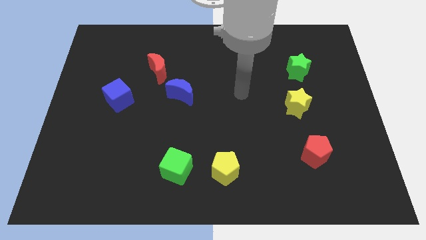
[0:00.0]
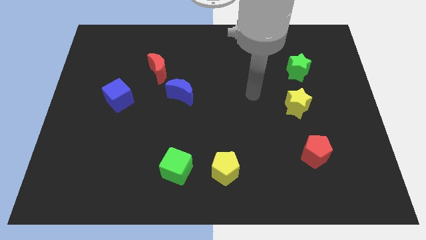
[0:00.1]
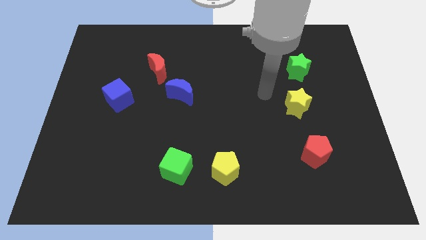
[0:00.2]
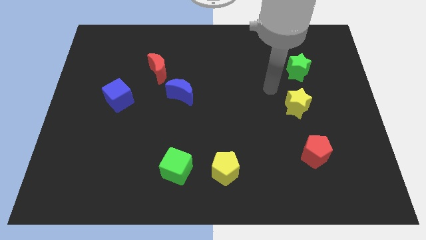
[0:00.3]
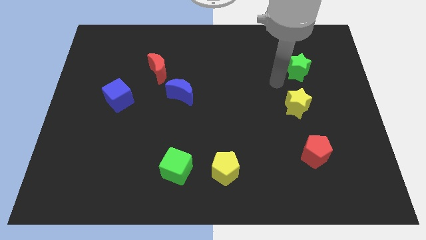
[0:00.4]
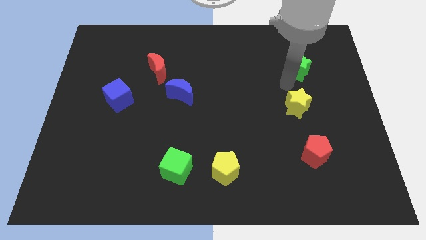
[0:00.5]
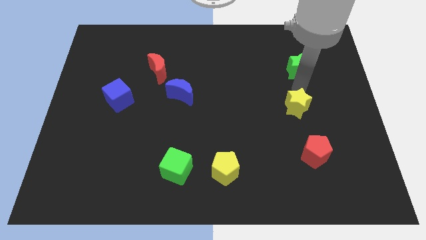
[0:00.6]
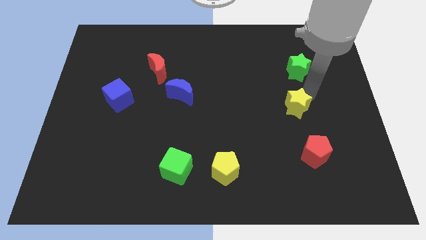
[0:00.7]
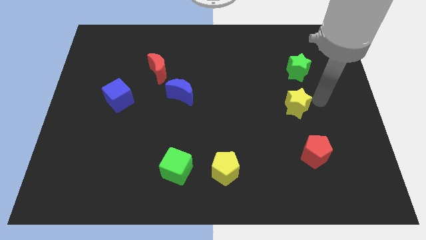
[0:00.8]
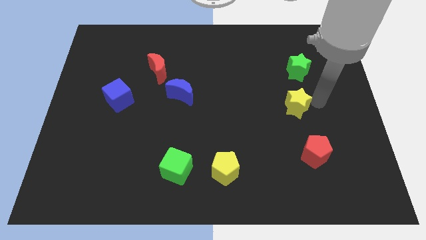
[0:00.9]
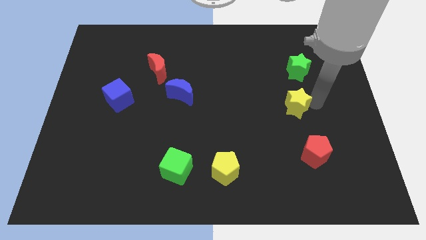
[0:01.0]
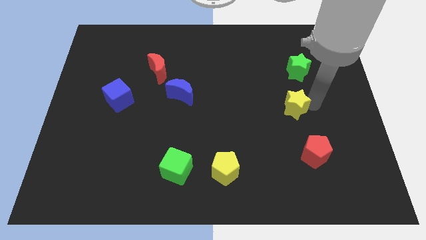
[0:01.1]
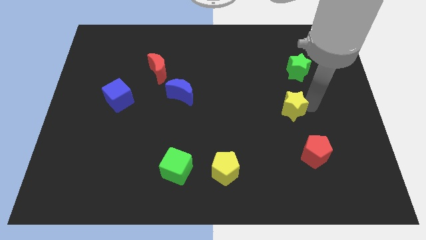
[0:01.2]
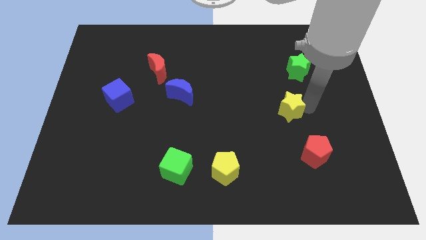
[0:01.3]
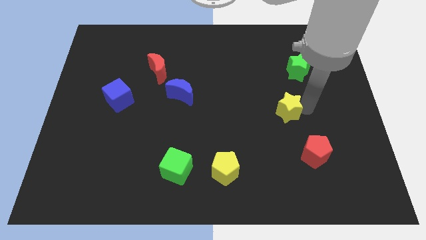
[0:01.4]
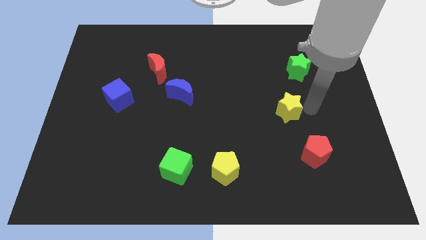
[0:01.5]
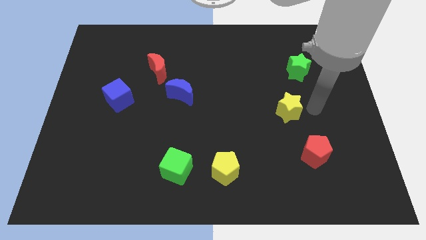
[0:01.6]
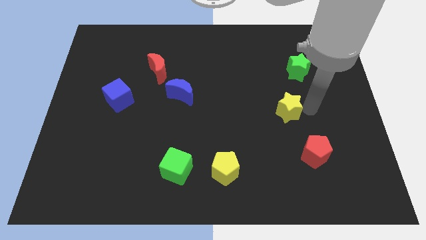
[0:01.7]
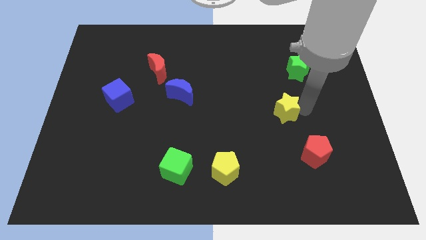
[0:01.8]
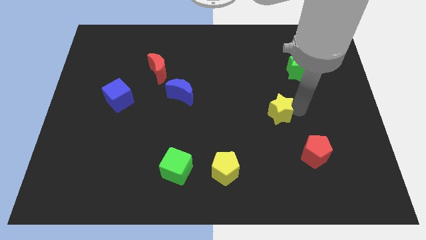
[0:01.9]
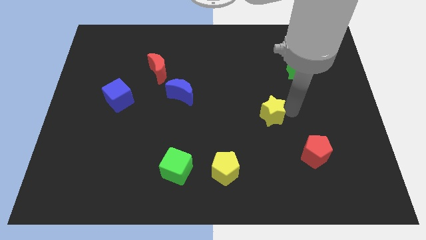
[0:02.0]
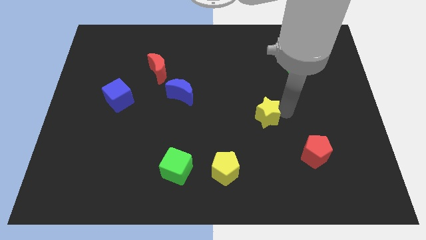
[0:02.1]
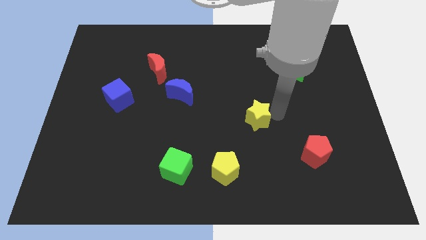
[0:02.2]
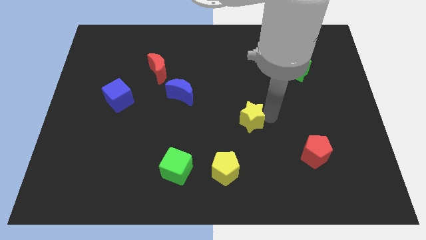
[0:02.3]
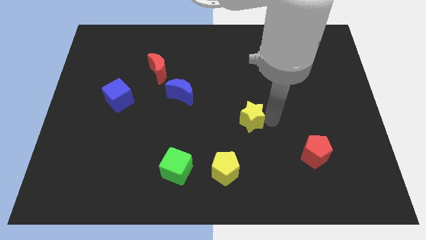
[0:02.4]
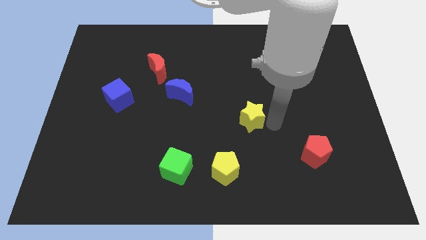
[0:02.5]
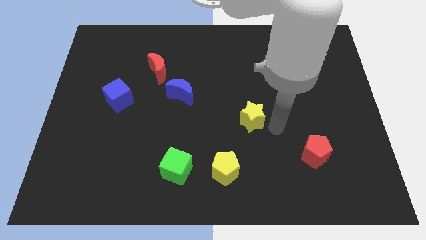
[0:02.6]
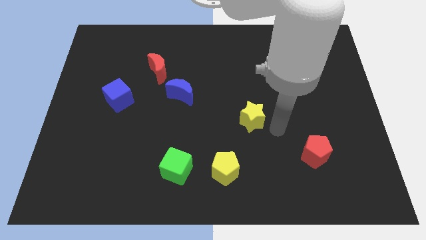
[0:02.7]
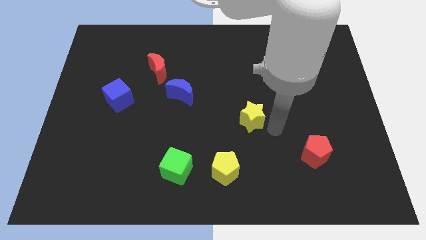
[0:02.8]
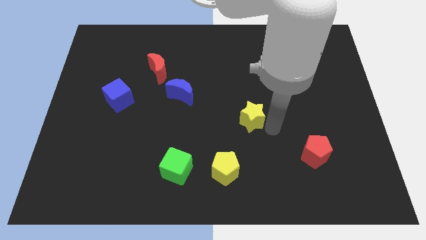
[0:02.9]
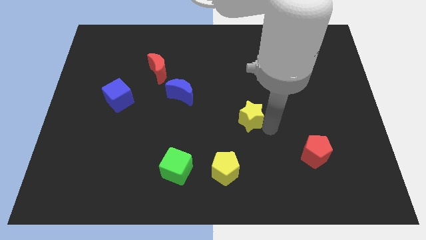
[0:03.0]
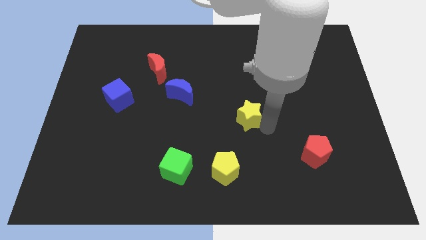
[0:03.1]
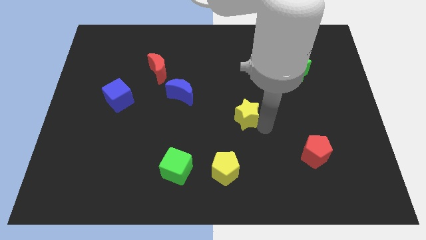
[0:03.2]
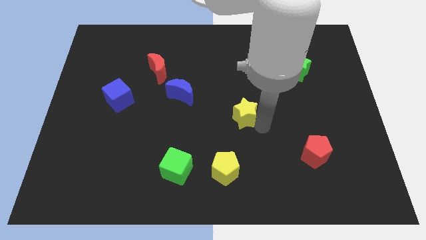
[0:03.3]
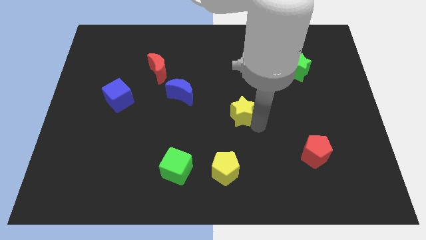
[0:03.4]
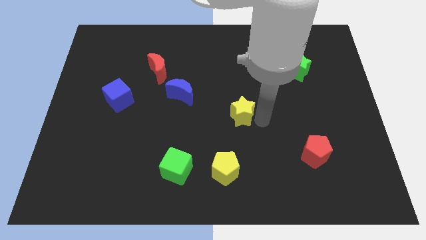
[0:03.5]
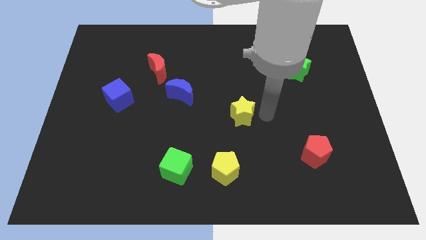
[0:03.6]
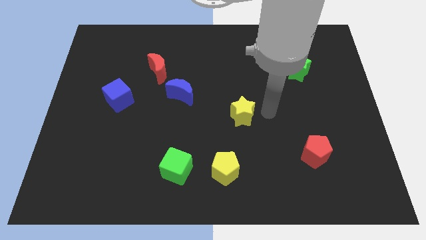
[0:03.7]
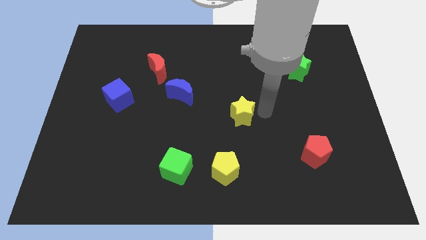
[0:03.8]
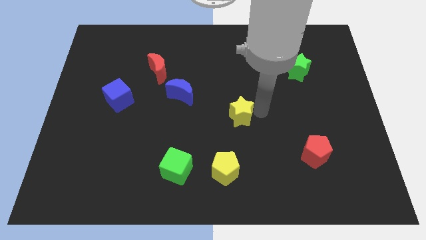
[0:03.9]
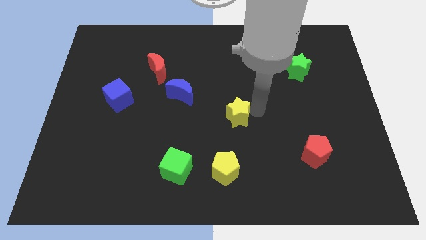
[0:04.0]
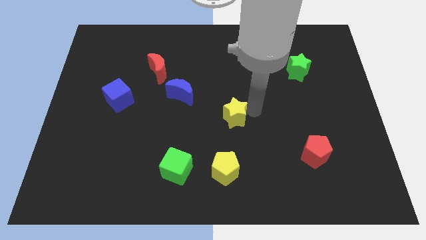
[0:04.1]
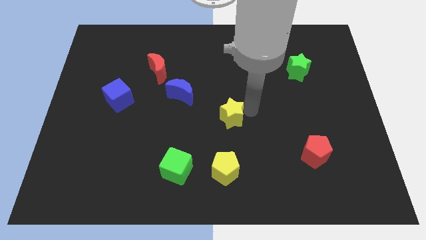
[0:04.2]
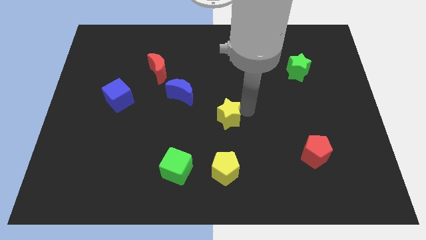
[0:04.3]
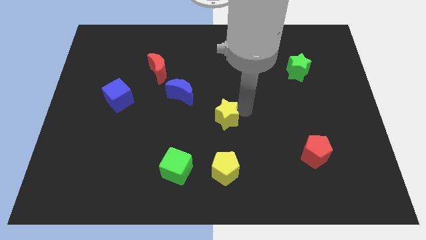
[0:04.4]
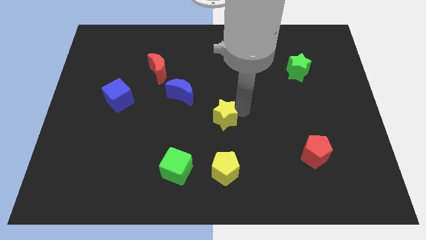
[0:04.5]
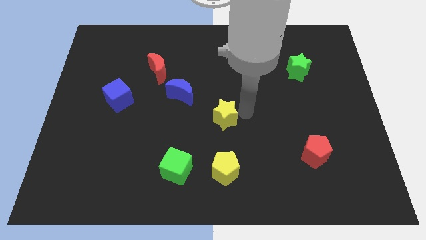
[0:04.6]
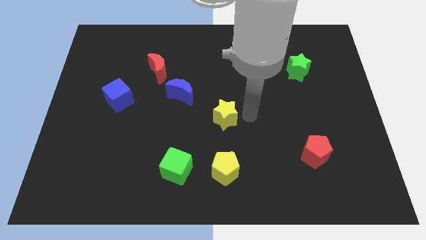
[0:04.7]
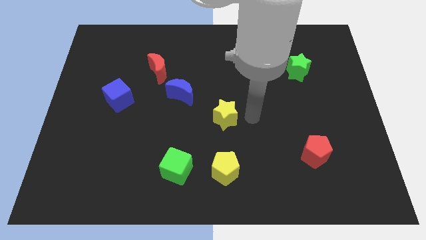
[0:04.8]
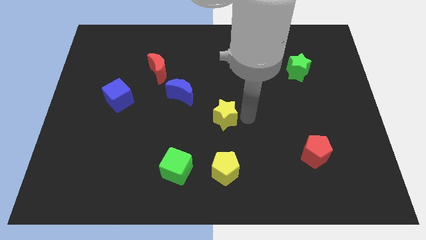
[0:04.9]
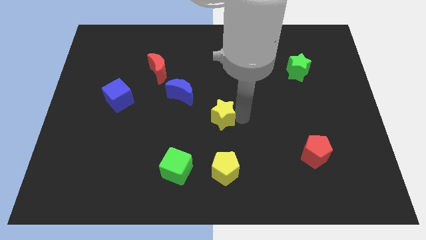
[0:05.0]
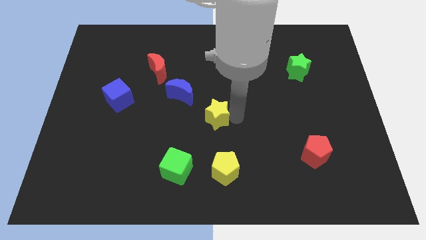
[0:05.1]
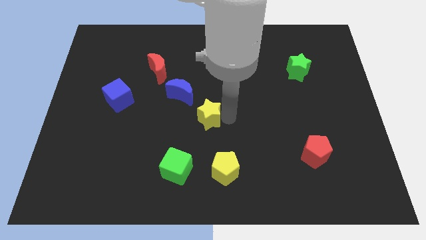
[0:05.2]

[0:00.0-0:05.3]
push the yellow star to the left

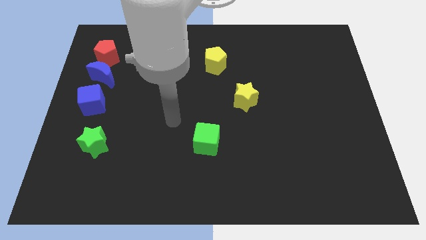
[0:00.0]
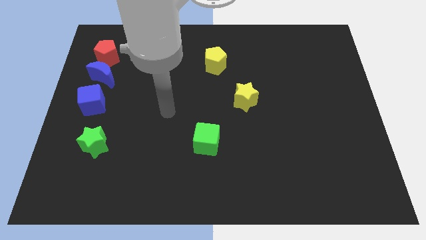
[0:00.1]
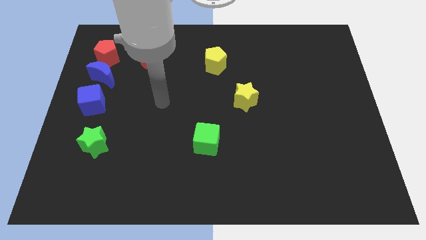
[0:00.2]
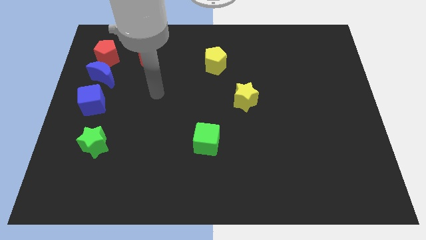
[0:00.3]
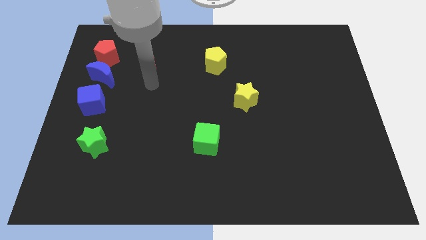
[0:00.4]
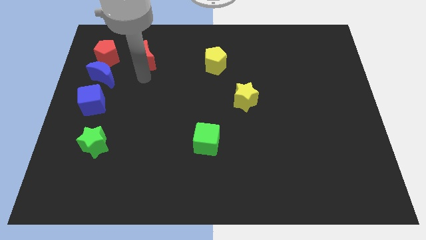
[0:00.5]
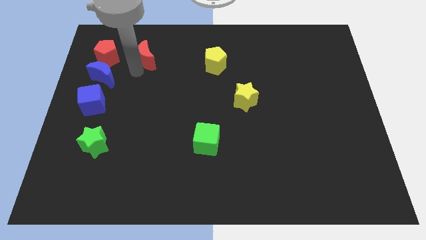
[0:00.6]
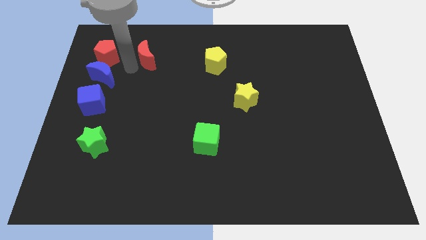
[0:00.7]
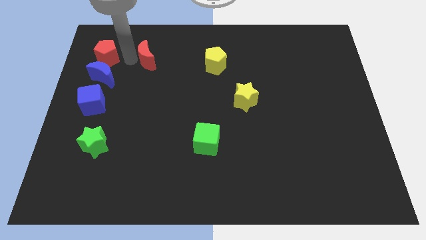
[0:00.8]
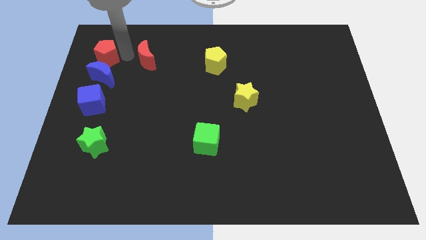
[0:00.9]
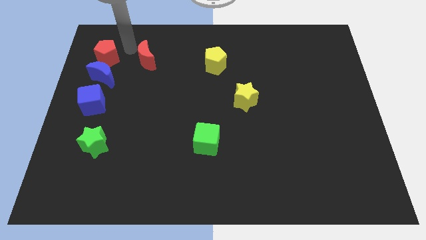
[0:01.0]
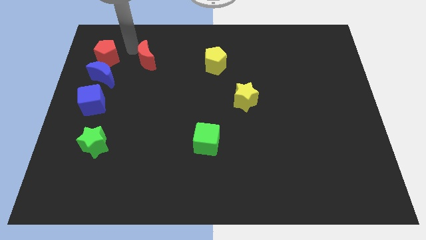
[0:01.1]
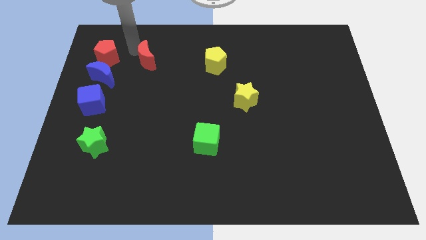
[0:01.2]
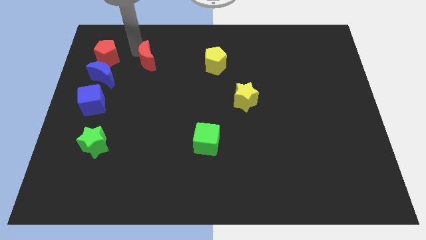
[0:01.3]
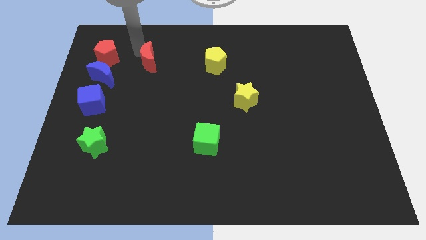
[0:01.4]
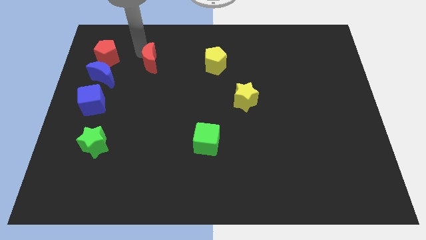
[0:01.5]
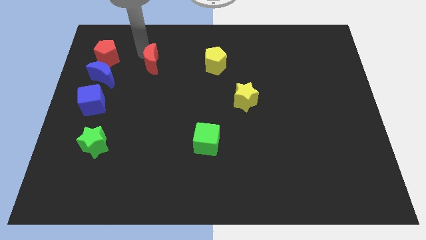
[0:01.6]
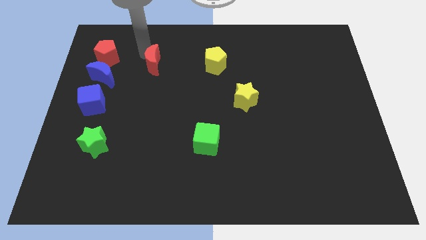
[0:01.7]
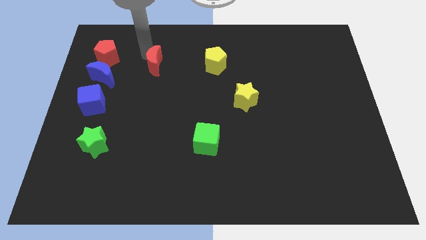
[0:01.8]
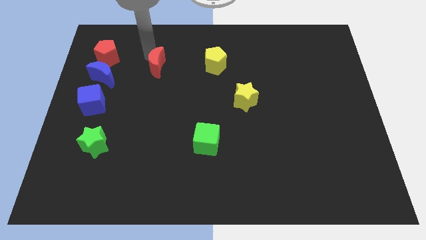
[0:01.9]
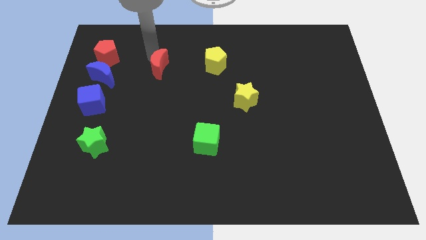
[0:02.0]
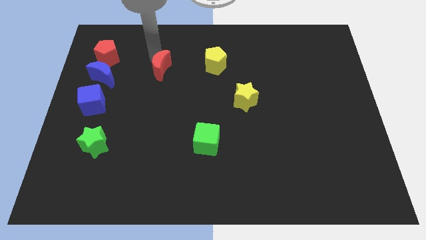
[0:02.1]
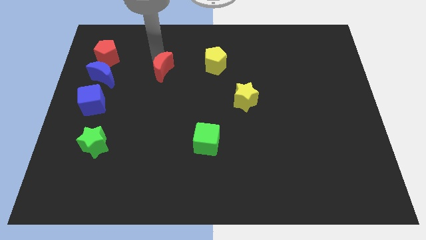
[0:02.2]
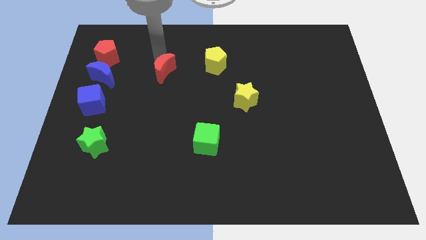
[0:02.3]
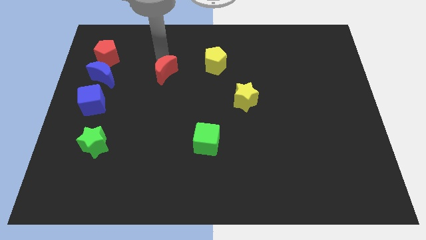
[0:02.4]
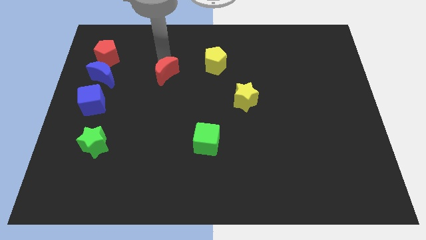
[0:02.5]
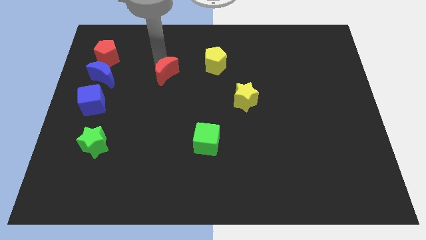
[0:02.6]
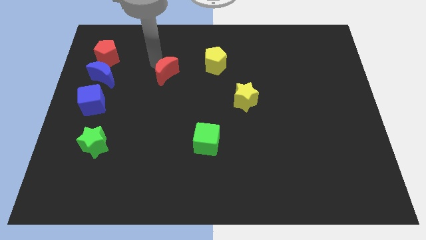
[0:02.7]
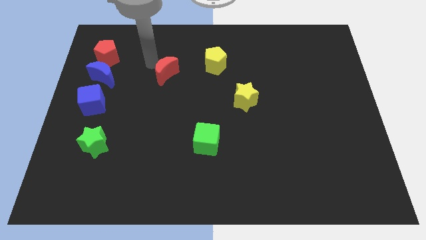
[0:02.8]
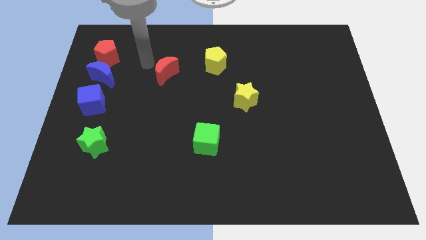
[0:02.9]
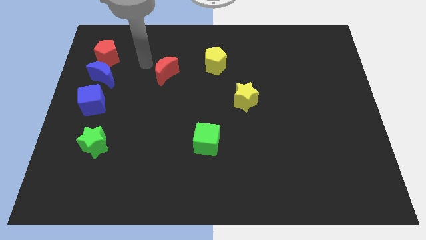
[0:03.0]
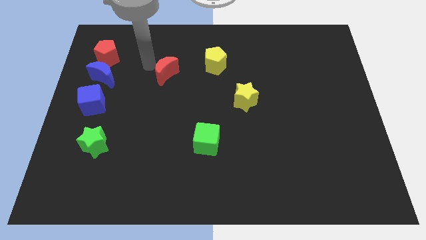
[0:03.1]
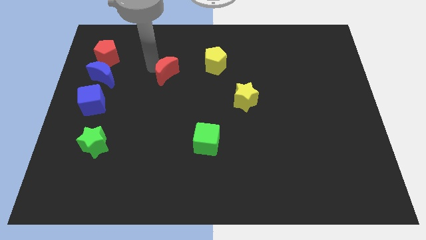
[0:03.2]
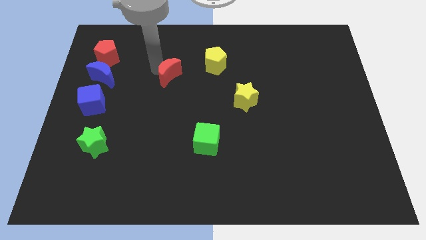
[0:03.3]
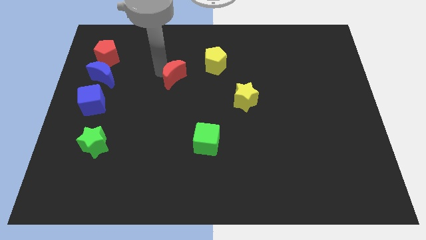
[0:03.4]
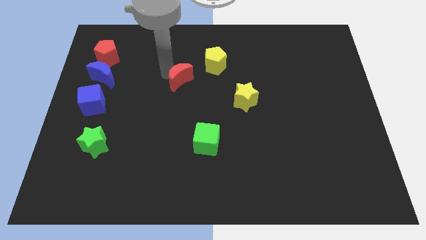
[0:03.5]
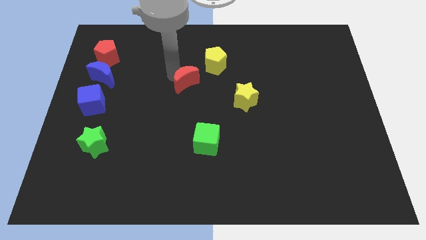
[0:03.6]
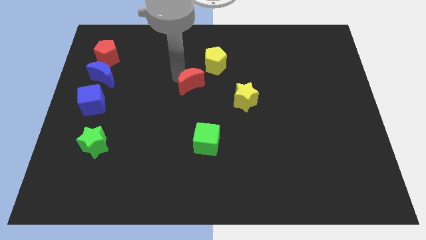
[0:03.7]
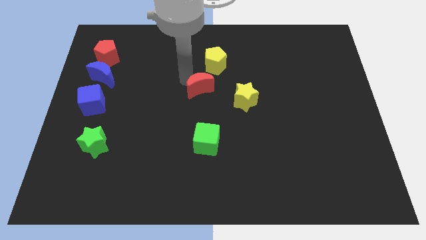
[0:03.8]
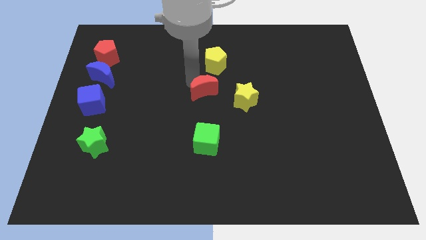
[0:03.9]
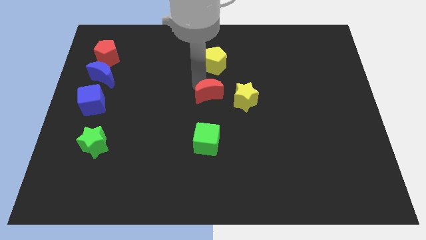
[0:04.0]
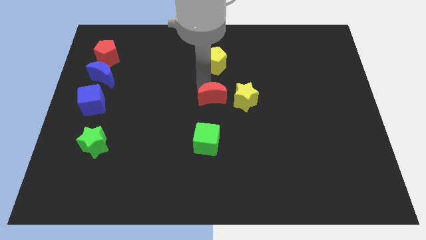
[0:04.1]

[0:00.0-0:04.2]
slide the red moon down and then to the right
